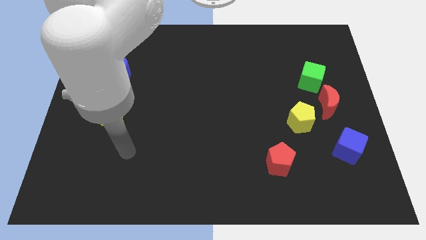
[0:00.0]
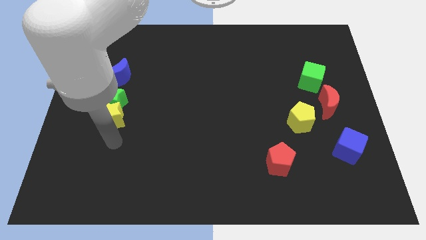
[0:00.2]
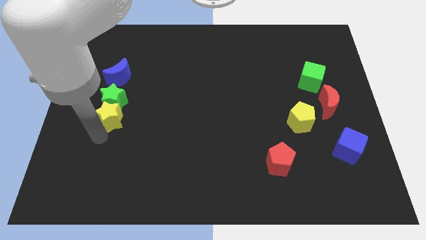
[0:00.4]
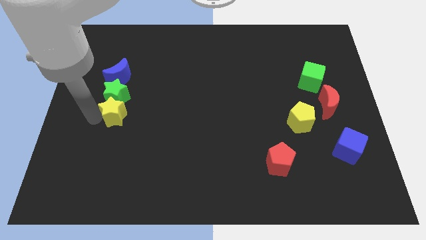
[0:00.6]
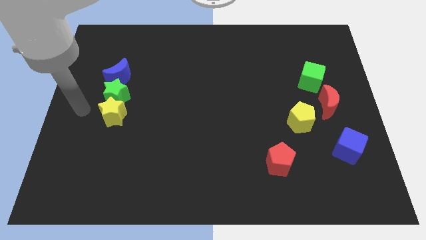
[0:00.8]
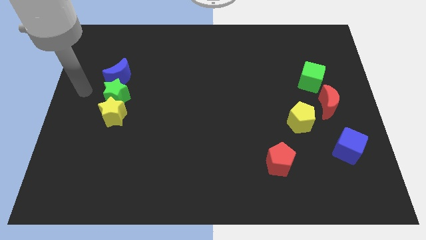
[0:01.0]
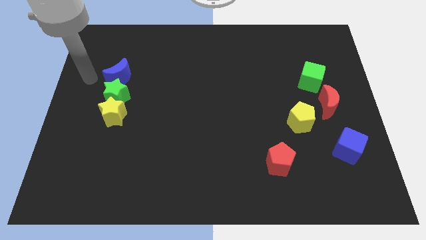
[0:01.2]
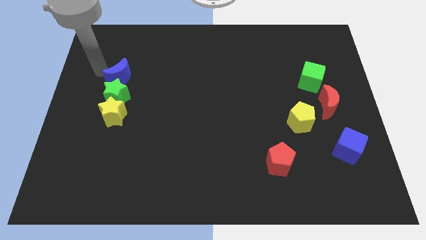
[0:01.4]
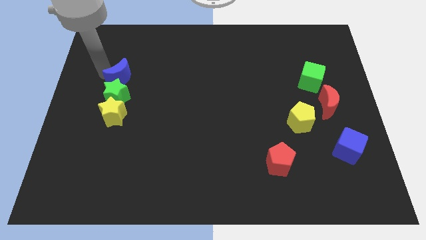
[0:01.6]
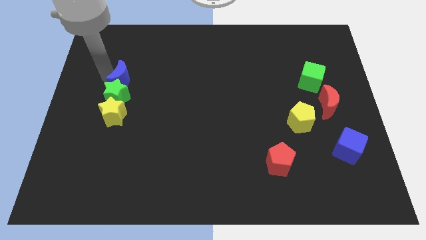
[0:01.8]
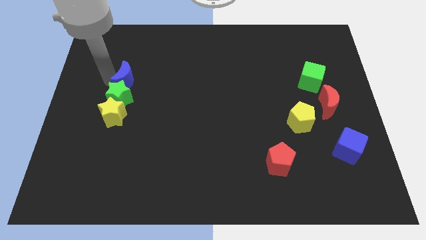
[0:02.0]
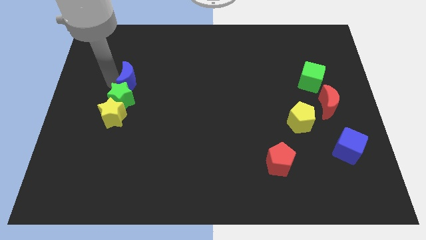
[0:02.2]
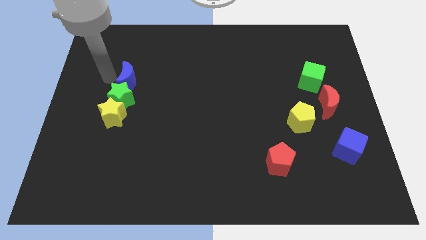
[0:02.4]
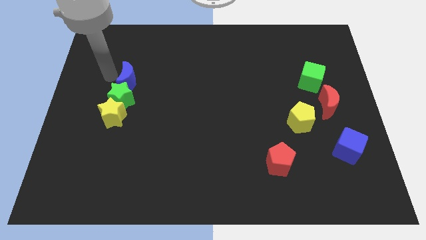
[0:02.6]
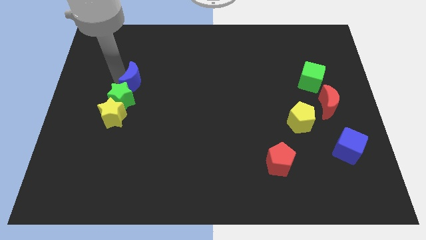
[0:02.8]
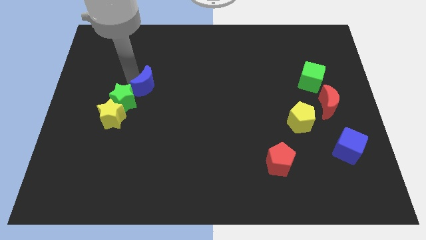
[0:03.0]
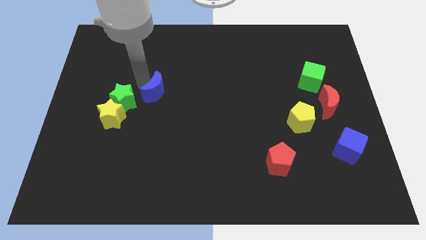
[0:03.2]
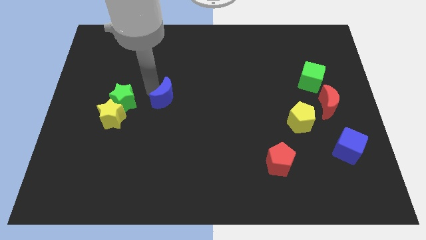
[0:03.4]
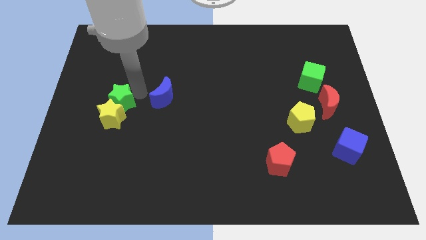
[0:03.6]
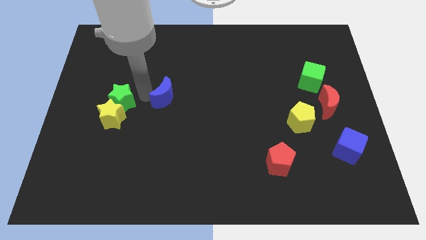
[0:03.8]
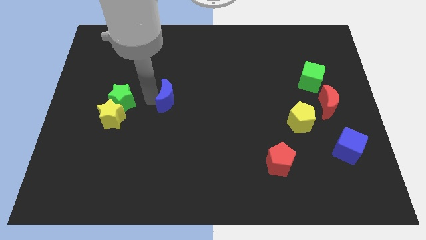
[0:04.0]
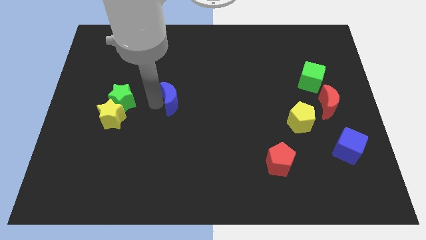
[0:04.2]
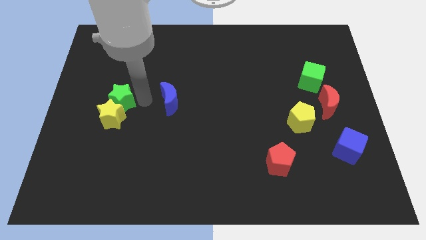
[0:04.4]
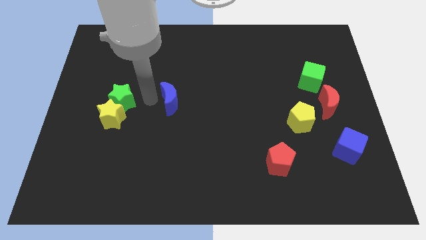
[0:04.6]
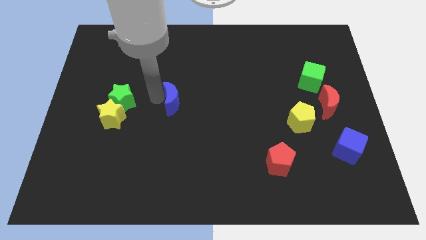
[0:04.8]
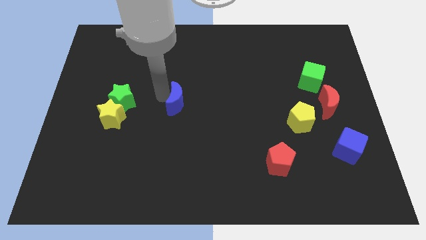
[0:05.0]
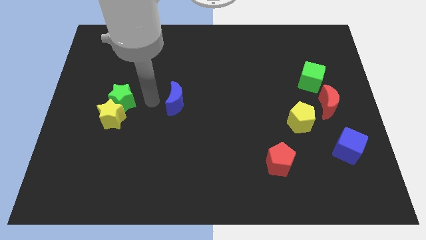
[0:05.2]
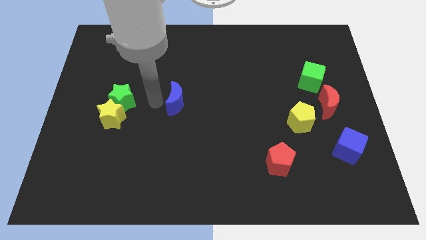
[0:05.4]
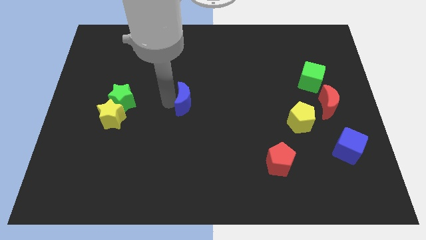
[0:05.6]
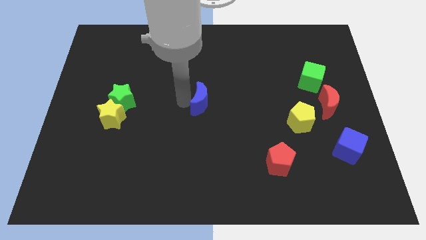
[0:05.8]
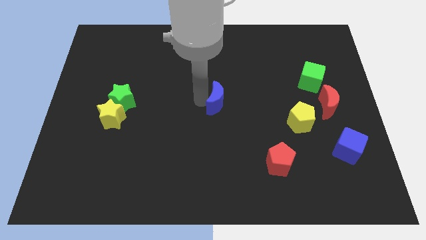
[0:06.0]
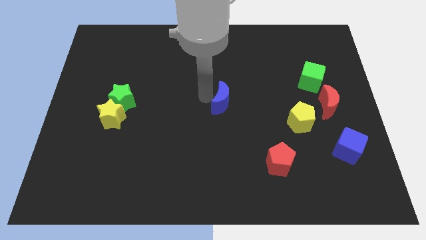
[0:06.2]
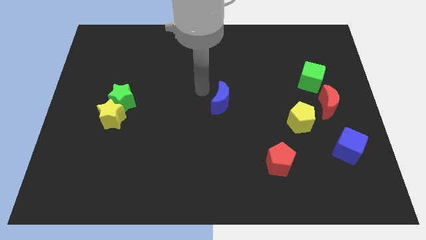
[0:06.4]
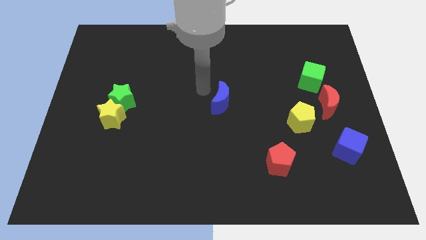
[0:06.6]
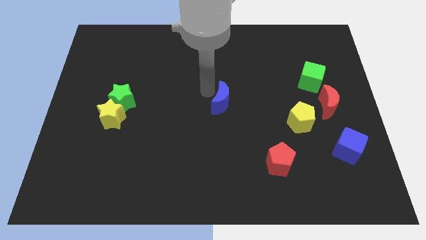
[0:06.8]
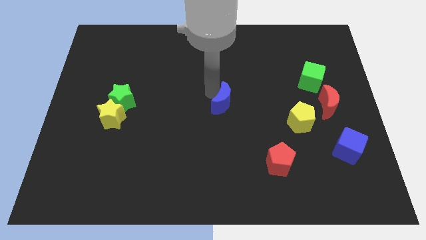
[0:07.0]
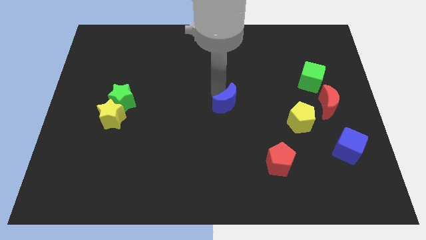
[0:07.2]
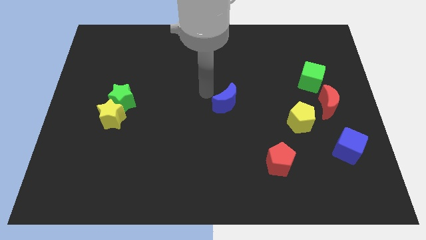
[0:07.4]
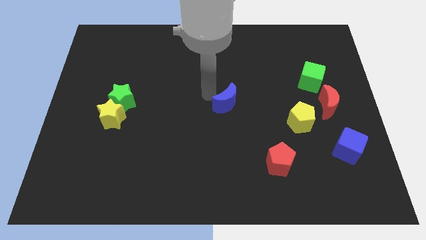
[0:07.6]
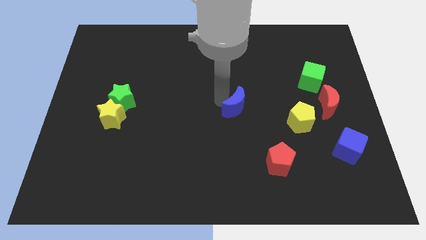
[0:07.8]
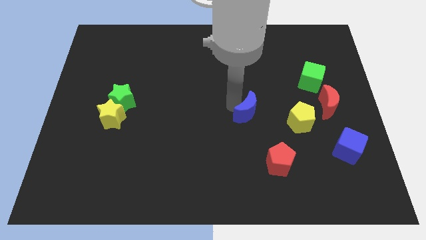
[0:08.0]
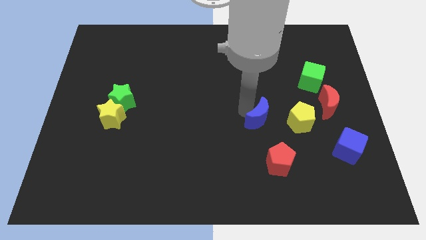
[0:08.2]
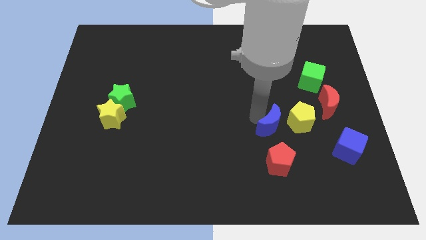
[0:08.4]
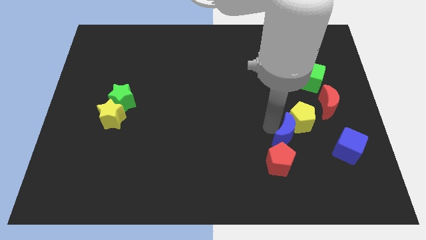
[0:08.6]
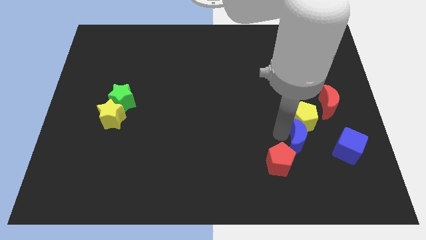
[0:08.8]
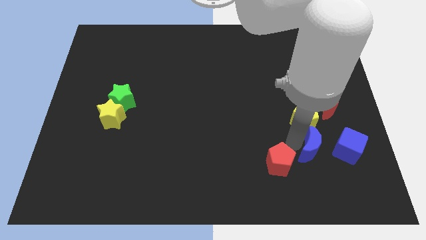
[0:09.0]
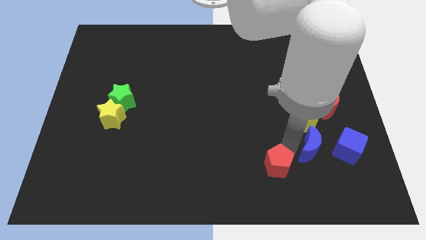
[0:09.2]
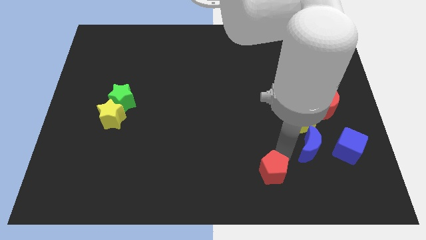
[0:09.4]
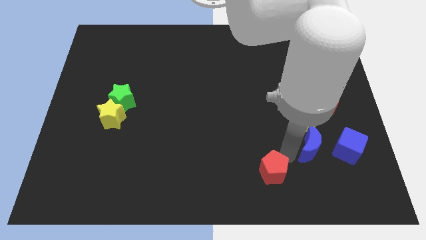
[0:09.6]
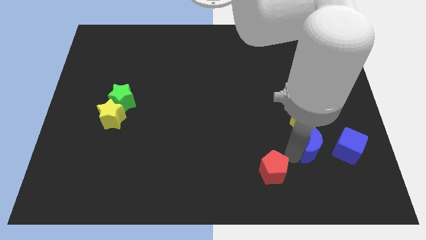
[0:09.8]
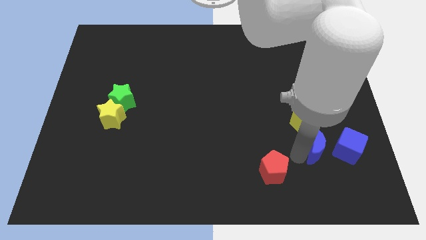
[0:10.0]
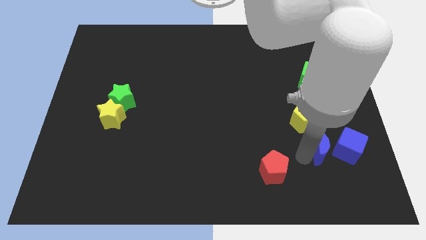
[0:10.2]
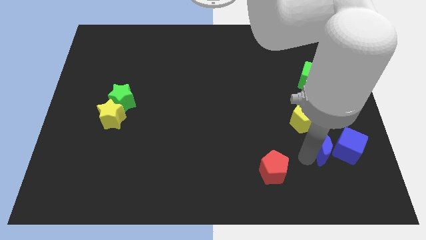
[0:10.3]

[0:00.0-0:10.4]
slide the blue moon to the blue cube

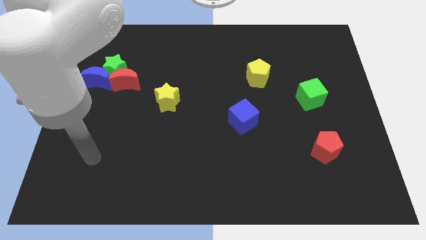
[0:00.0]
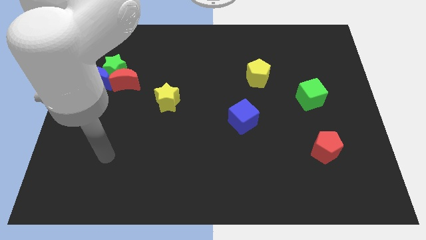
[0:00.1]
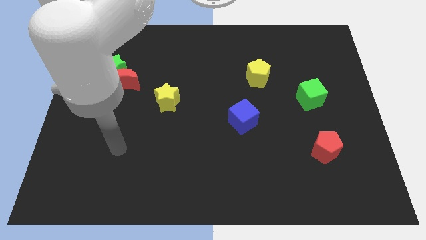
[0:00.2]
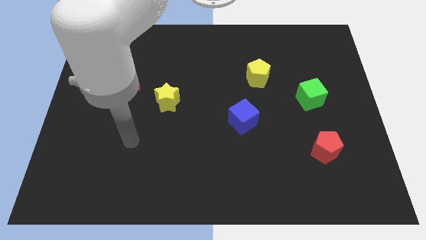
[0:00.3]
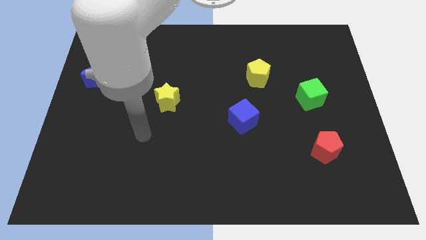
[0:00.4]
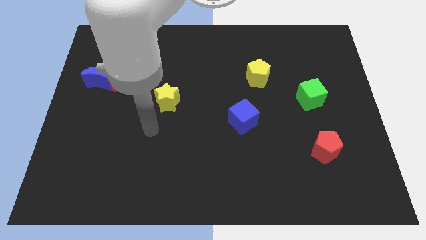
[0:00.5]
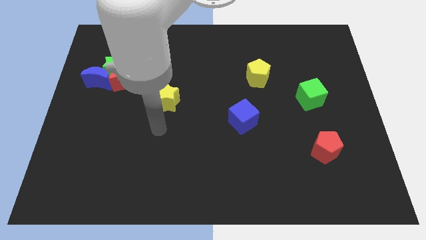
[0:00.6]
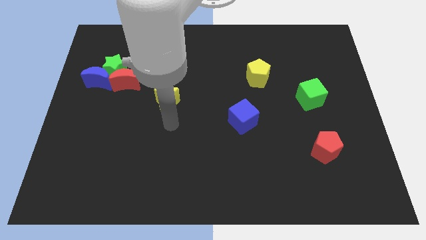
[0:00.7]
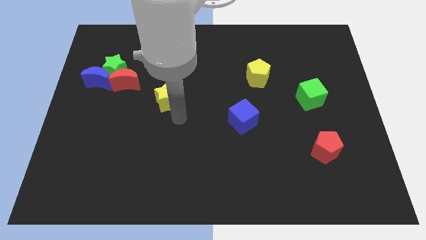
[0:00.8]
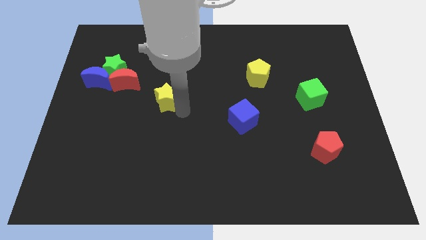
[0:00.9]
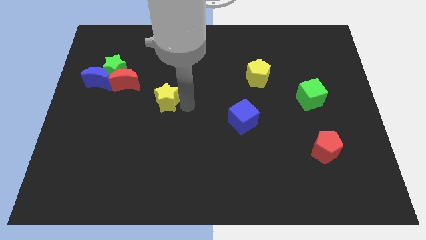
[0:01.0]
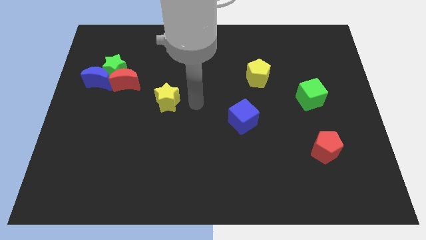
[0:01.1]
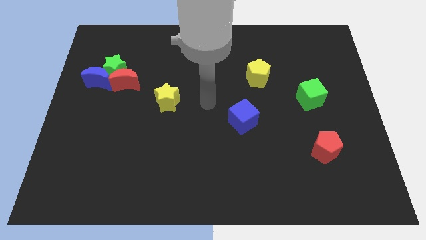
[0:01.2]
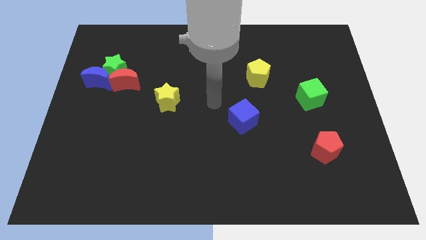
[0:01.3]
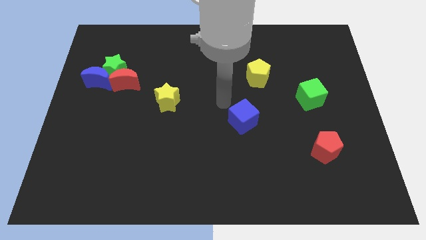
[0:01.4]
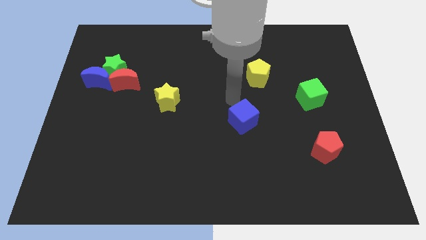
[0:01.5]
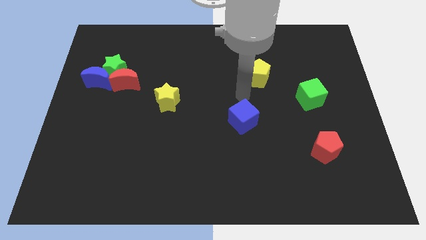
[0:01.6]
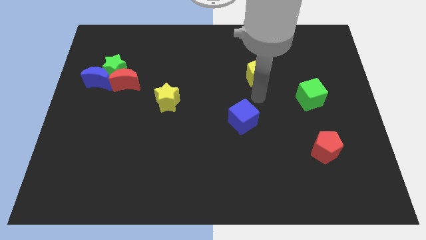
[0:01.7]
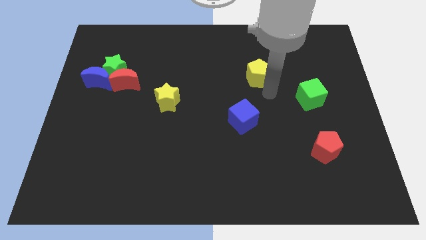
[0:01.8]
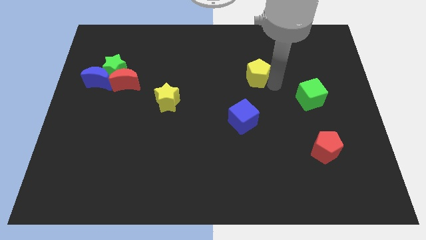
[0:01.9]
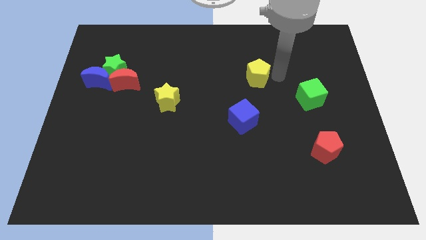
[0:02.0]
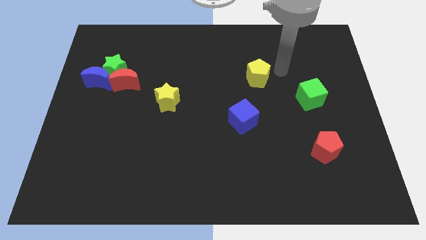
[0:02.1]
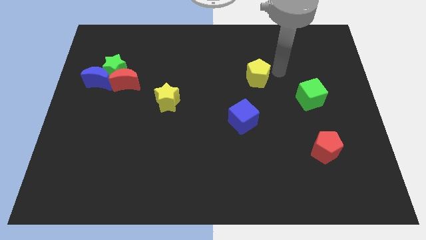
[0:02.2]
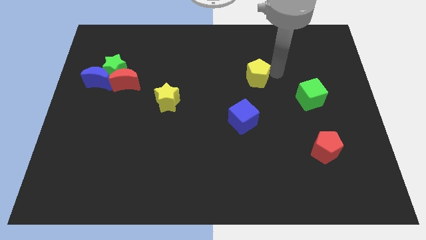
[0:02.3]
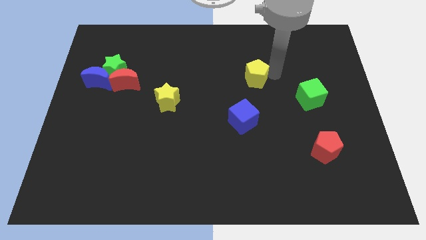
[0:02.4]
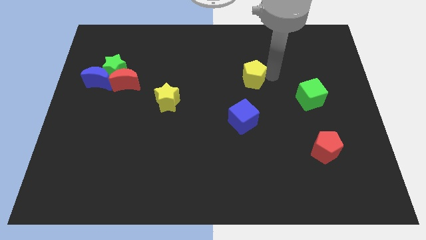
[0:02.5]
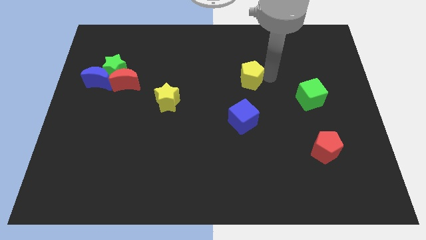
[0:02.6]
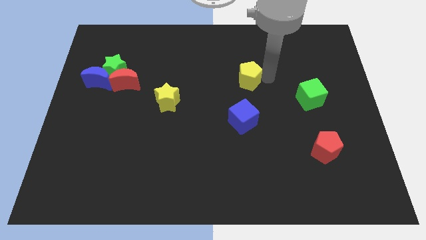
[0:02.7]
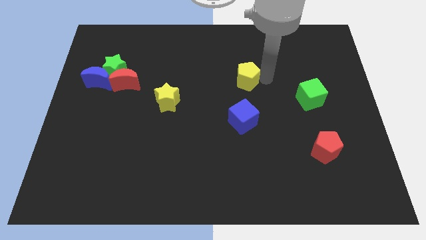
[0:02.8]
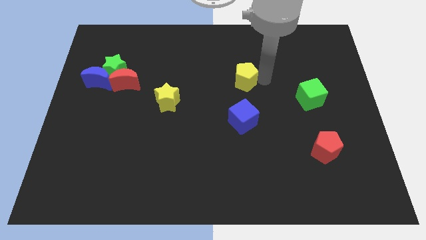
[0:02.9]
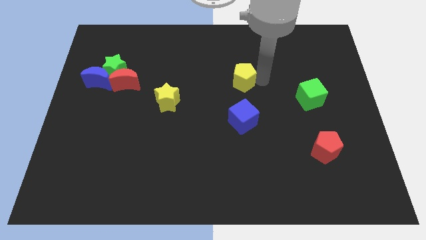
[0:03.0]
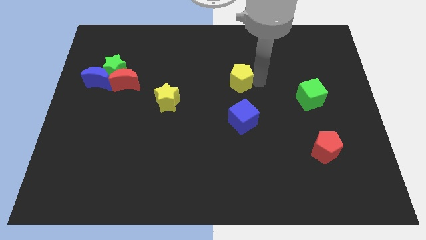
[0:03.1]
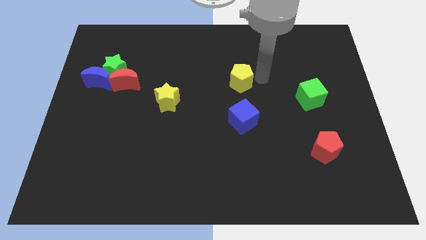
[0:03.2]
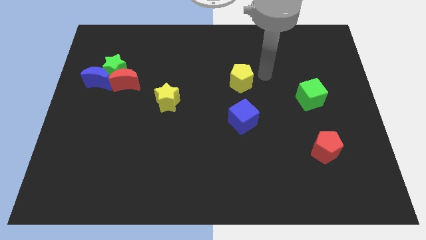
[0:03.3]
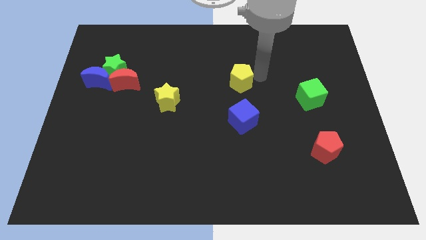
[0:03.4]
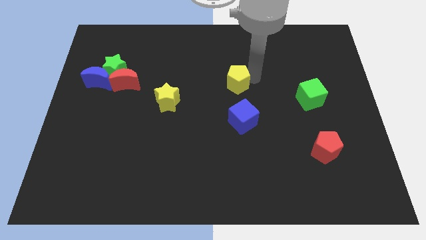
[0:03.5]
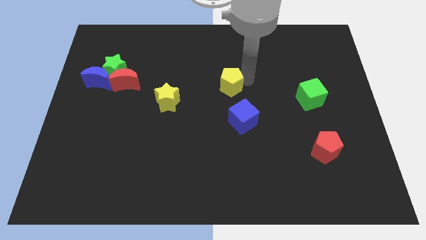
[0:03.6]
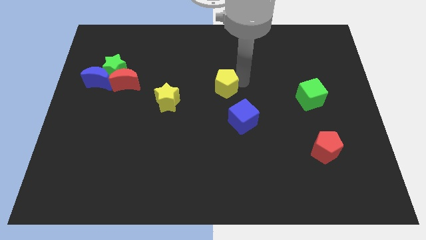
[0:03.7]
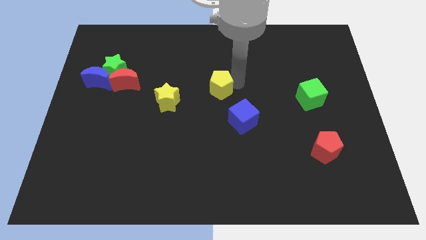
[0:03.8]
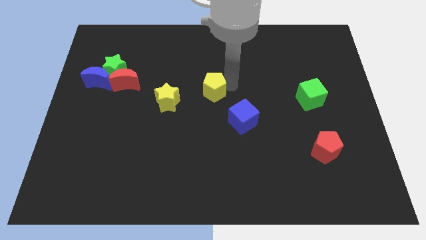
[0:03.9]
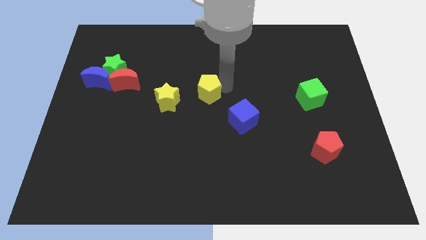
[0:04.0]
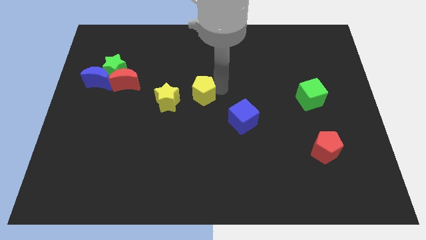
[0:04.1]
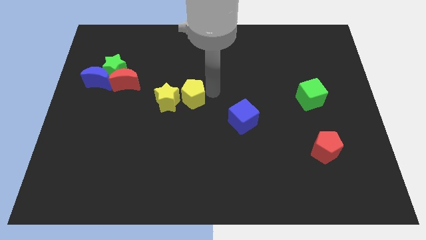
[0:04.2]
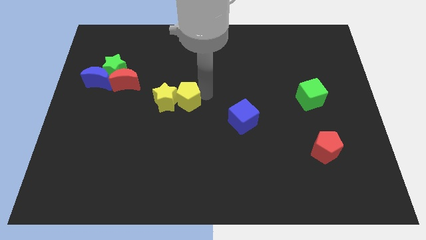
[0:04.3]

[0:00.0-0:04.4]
slide the yellow pentagon to the yellow star
